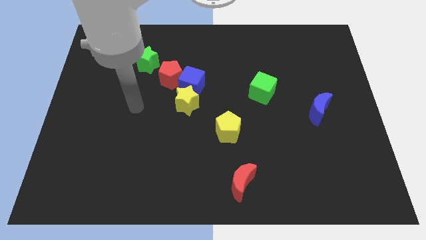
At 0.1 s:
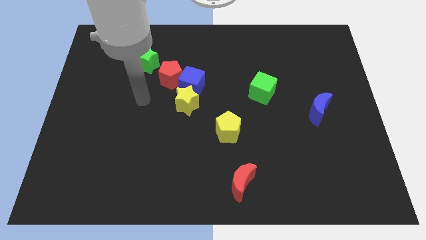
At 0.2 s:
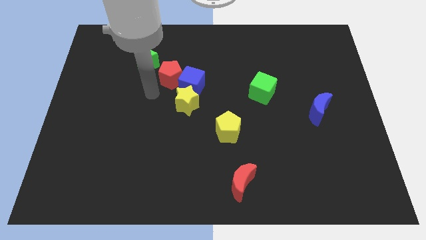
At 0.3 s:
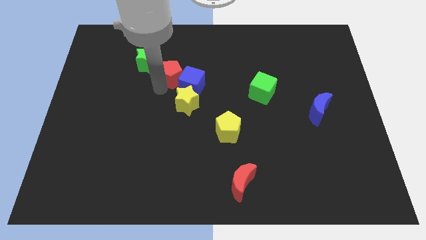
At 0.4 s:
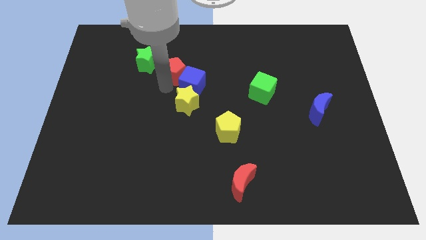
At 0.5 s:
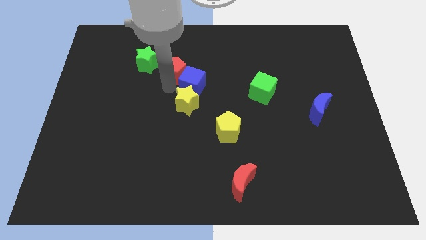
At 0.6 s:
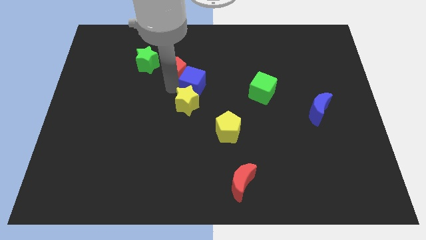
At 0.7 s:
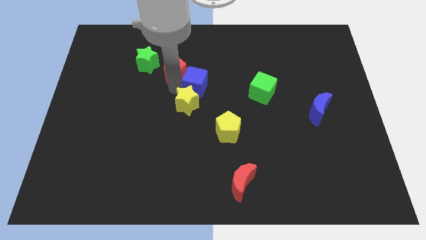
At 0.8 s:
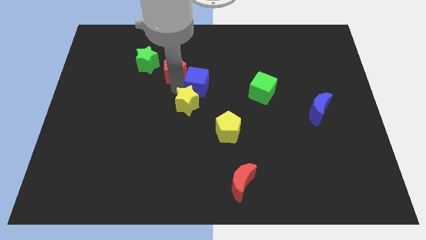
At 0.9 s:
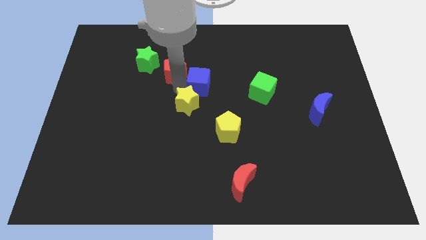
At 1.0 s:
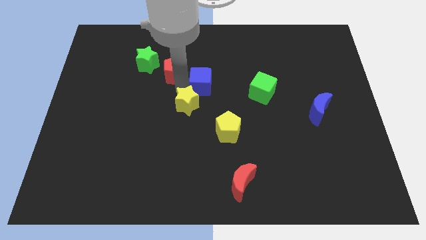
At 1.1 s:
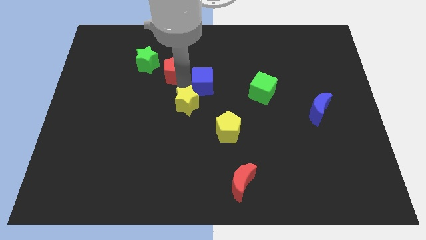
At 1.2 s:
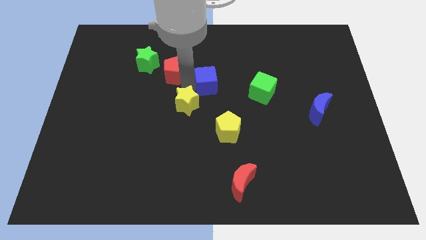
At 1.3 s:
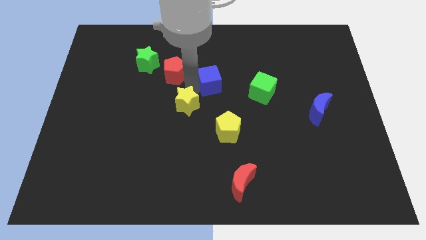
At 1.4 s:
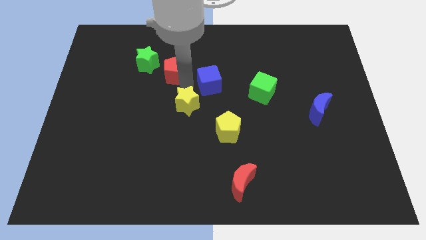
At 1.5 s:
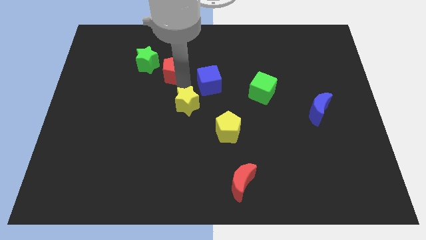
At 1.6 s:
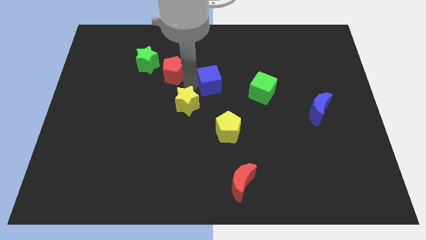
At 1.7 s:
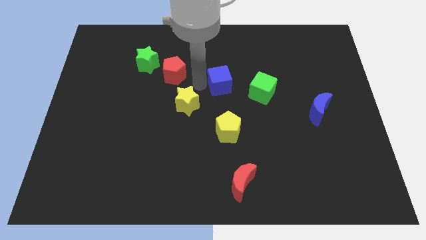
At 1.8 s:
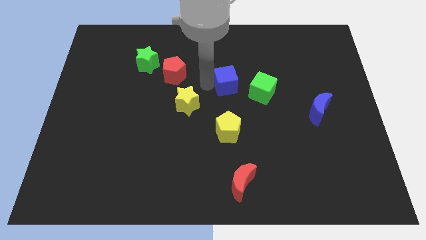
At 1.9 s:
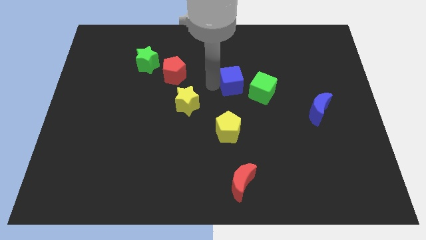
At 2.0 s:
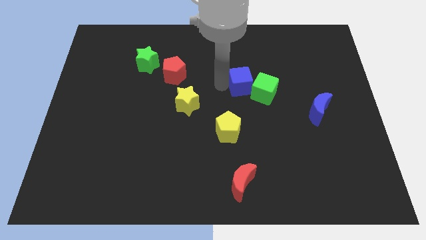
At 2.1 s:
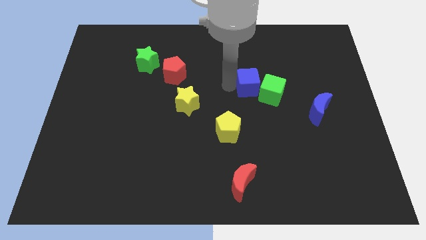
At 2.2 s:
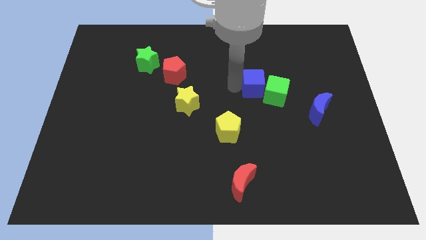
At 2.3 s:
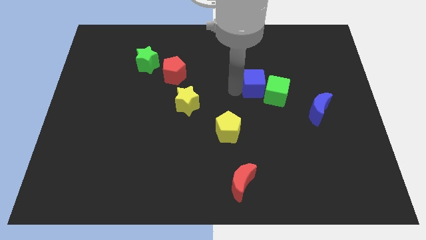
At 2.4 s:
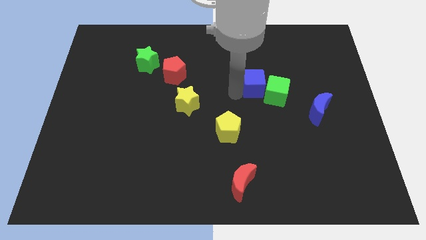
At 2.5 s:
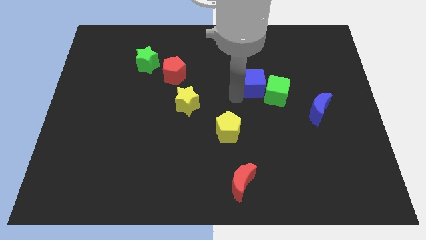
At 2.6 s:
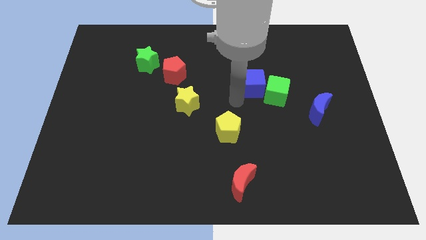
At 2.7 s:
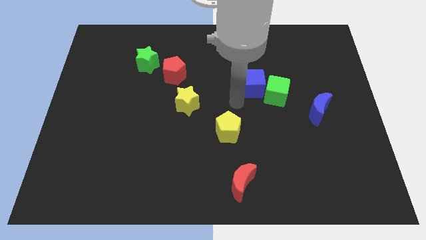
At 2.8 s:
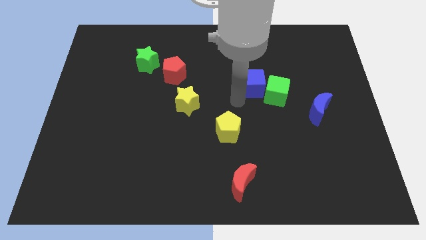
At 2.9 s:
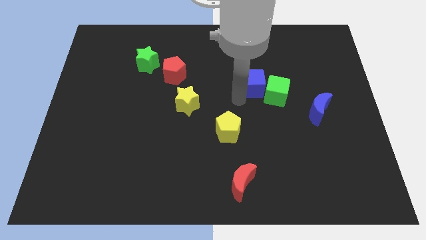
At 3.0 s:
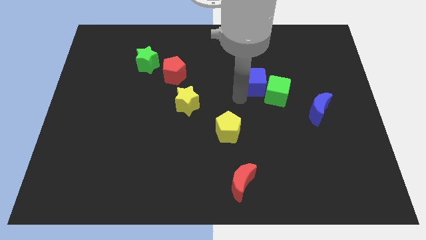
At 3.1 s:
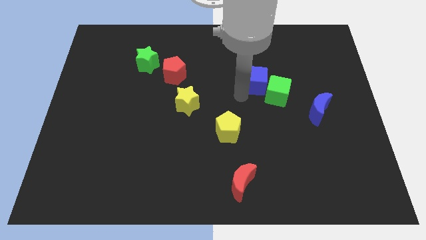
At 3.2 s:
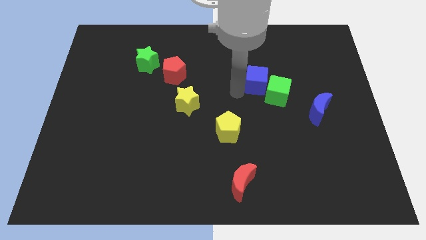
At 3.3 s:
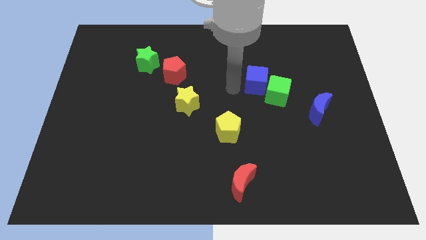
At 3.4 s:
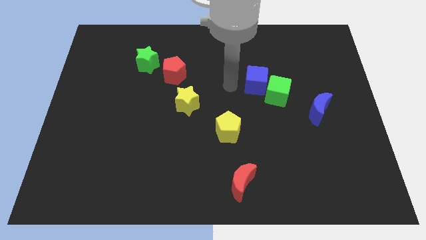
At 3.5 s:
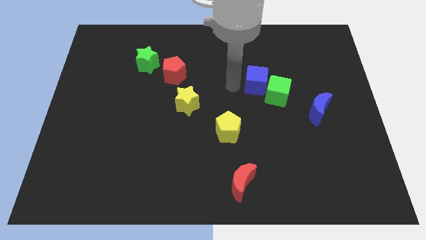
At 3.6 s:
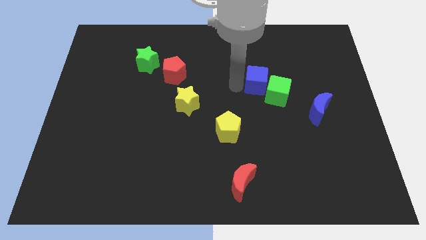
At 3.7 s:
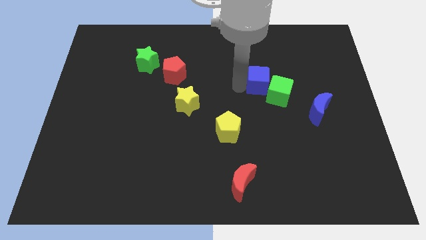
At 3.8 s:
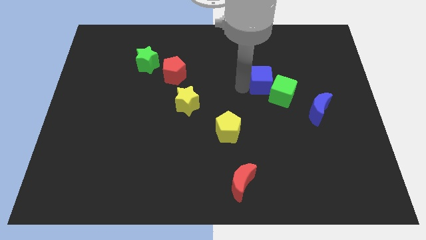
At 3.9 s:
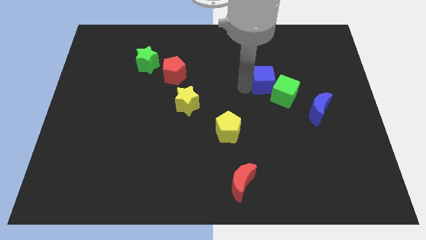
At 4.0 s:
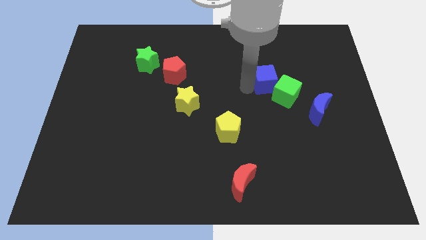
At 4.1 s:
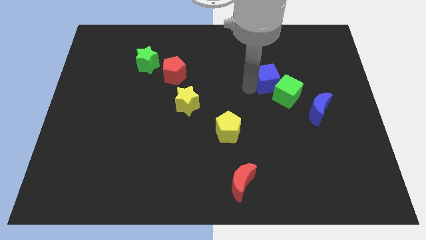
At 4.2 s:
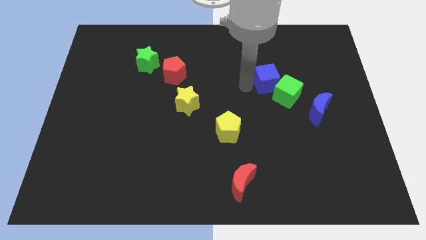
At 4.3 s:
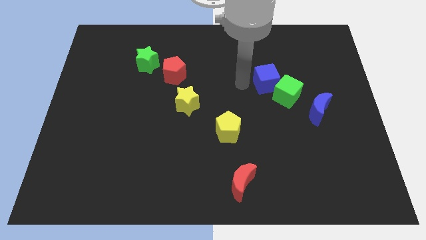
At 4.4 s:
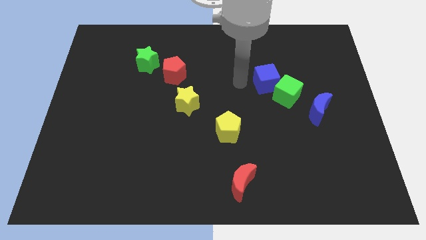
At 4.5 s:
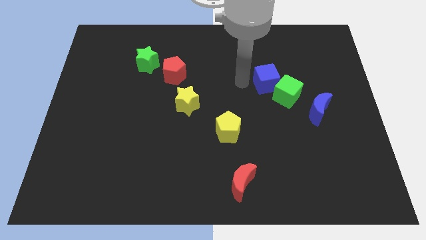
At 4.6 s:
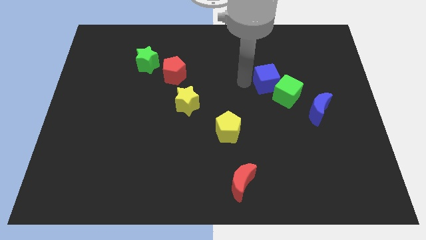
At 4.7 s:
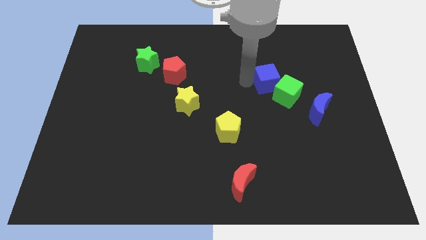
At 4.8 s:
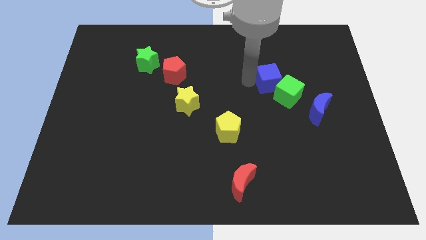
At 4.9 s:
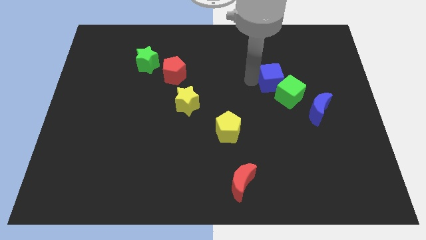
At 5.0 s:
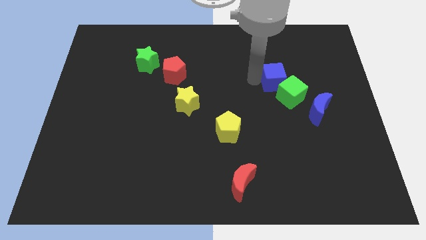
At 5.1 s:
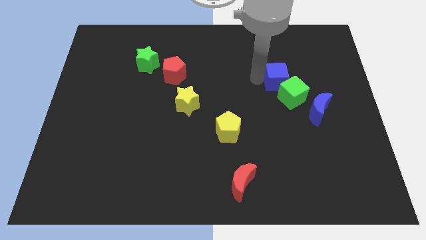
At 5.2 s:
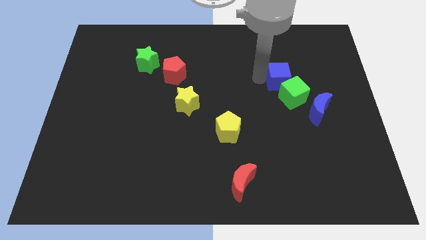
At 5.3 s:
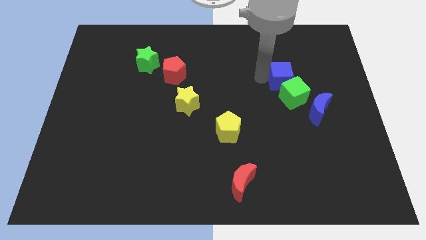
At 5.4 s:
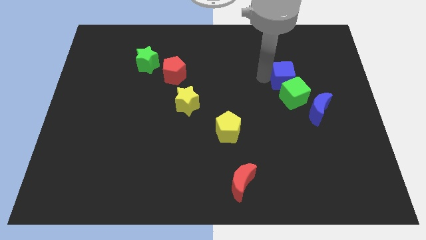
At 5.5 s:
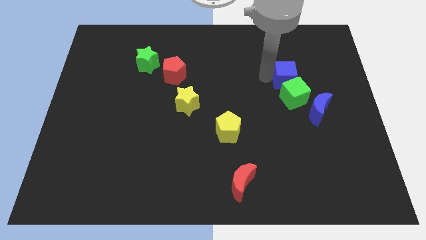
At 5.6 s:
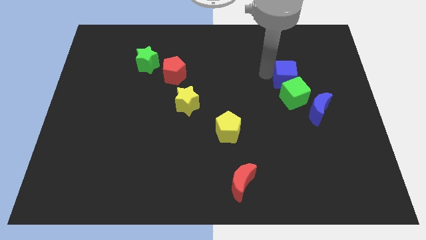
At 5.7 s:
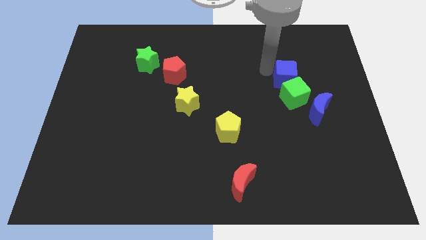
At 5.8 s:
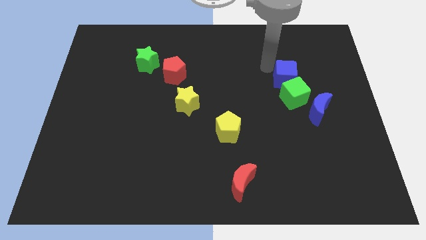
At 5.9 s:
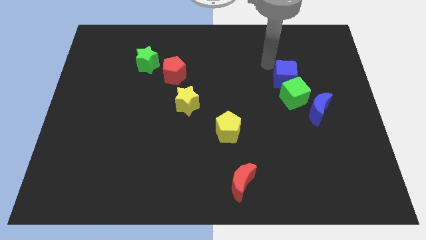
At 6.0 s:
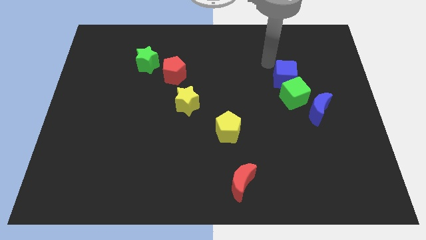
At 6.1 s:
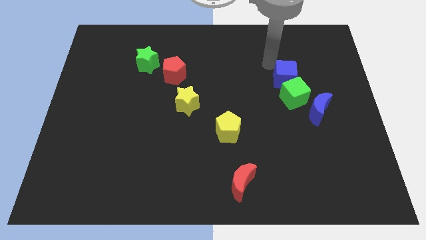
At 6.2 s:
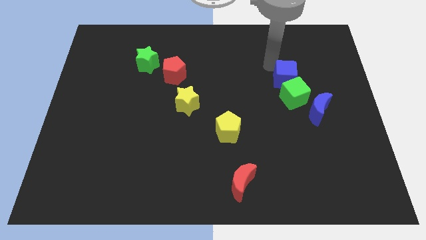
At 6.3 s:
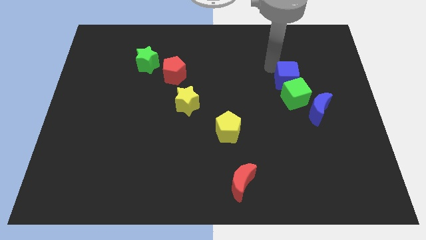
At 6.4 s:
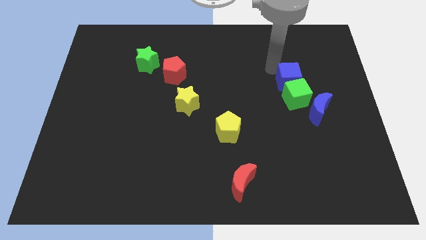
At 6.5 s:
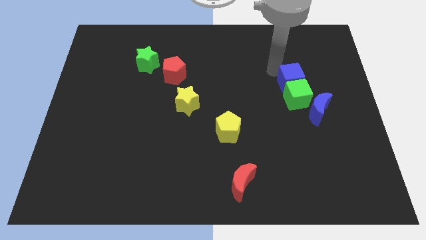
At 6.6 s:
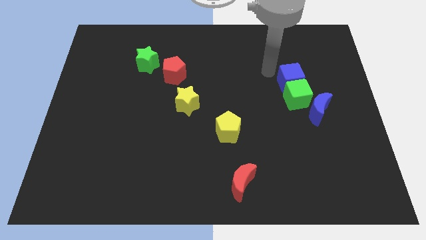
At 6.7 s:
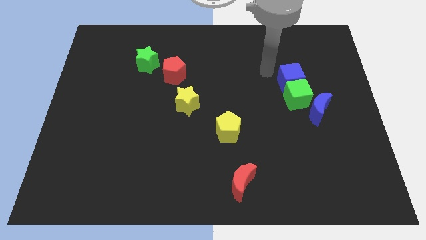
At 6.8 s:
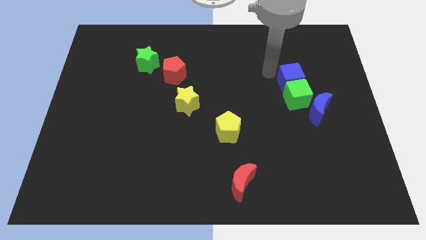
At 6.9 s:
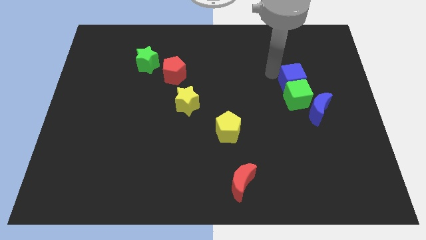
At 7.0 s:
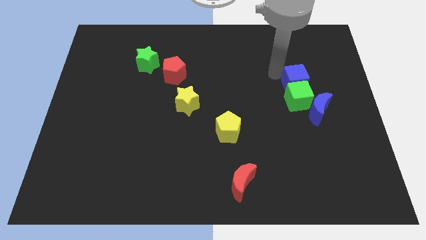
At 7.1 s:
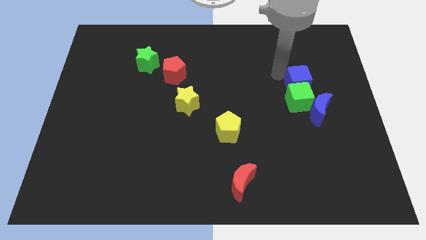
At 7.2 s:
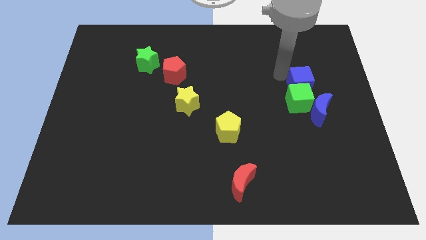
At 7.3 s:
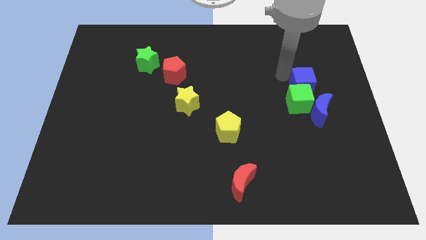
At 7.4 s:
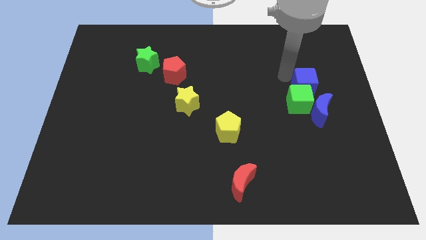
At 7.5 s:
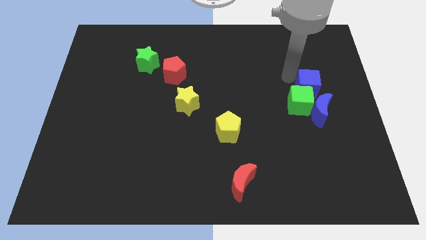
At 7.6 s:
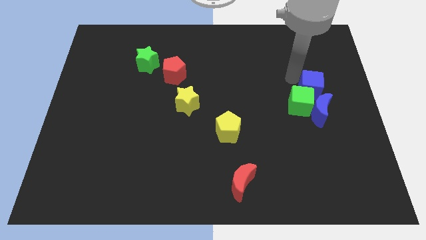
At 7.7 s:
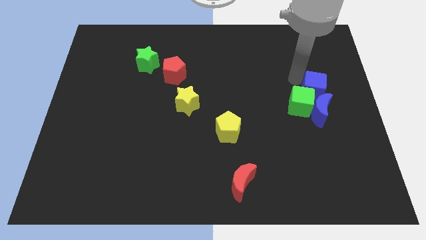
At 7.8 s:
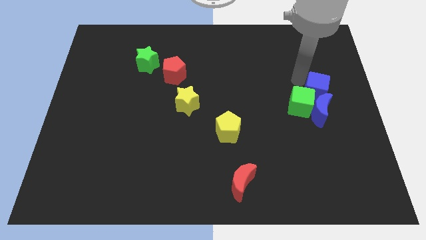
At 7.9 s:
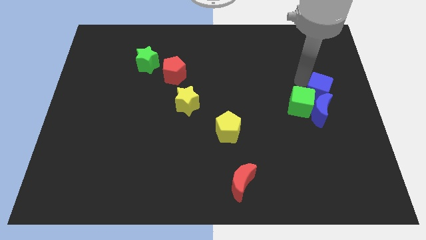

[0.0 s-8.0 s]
push the blue cube to the right side of the board
